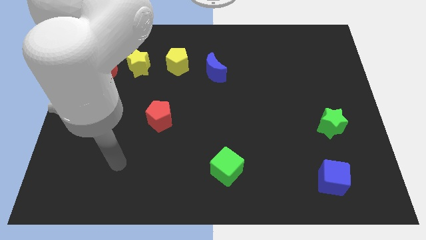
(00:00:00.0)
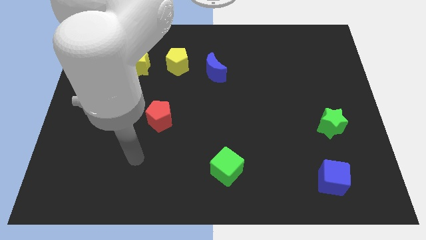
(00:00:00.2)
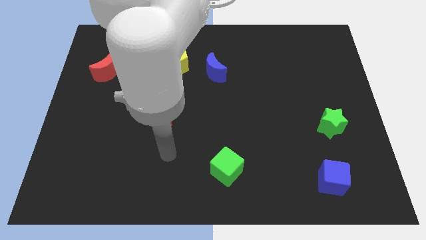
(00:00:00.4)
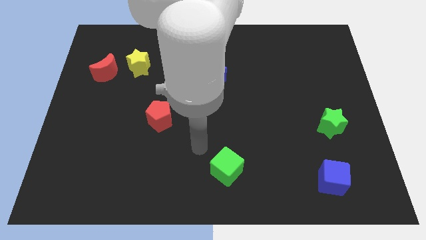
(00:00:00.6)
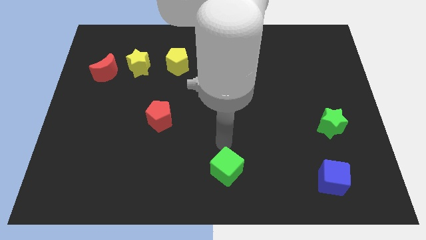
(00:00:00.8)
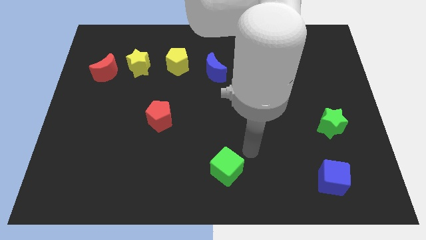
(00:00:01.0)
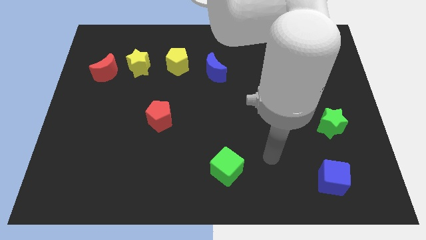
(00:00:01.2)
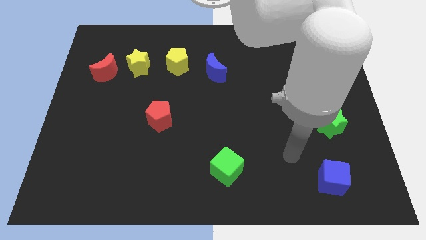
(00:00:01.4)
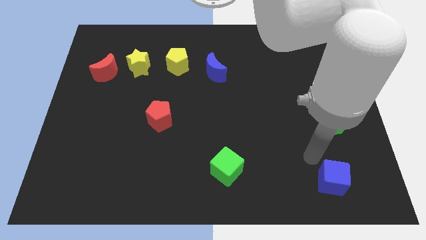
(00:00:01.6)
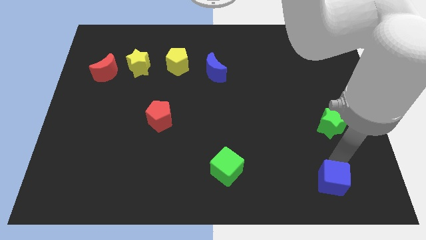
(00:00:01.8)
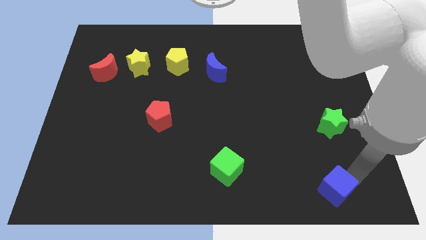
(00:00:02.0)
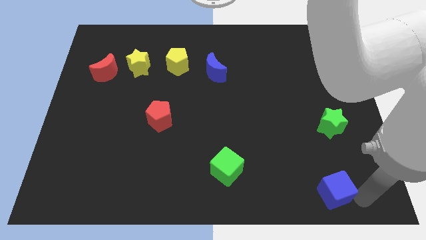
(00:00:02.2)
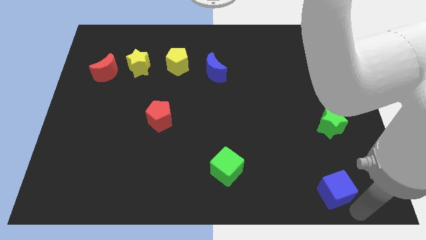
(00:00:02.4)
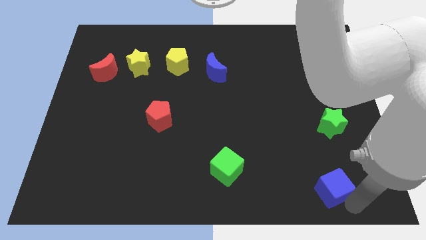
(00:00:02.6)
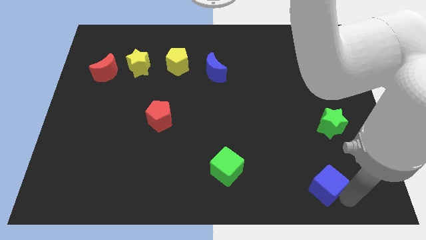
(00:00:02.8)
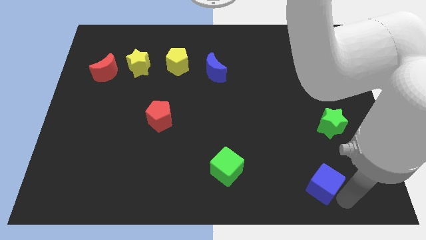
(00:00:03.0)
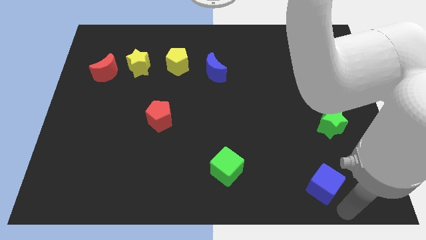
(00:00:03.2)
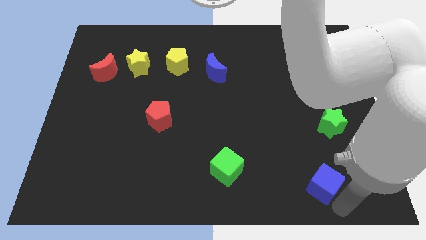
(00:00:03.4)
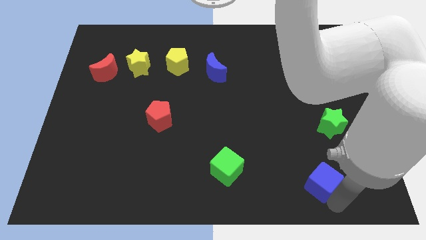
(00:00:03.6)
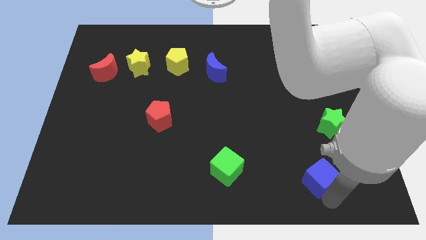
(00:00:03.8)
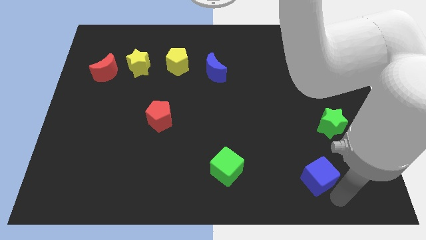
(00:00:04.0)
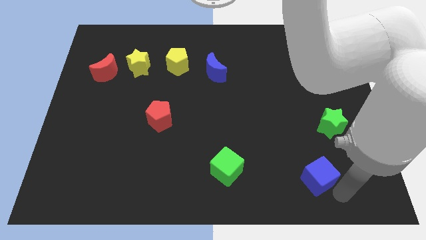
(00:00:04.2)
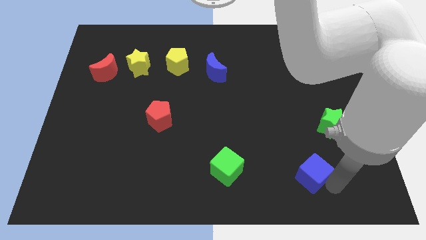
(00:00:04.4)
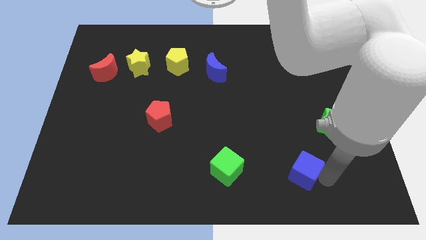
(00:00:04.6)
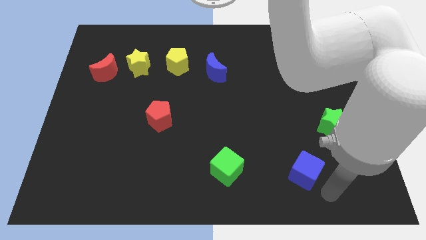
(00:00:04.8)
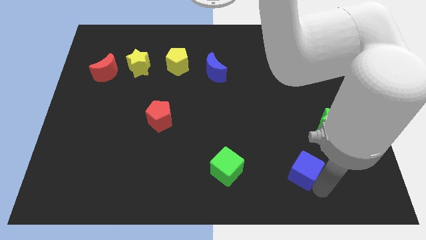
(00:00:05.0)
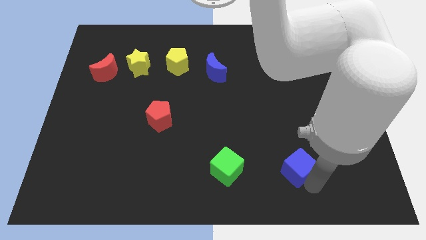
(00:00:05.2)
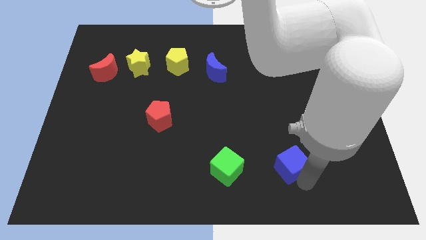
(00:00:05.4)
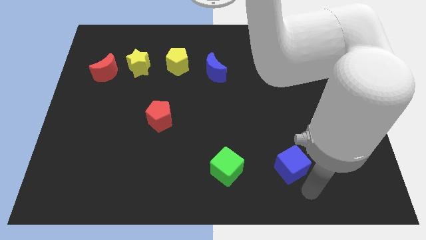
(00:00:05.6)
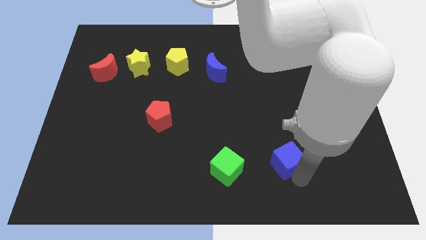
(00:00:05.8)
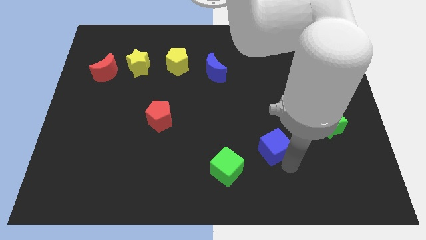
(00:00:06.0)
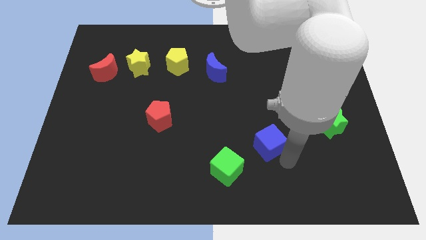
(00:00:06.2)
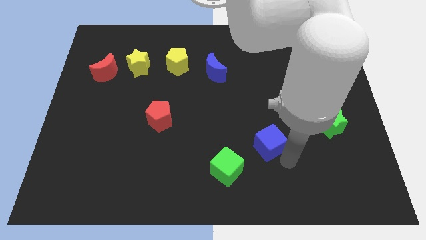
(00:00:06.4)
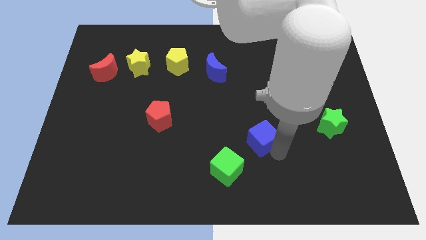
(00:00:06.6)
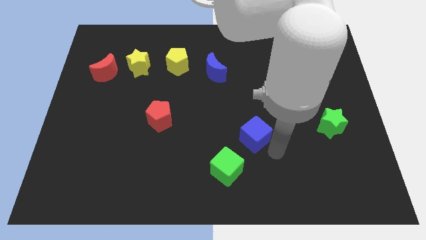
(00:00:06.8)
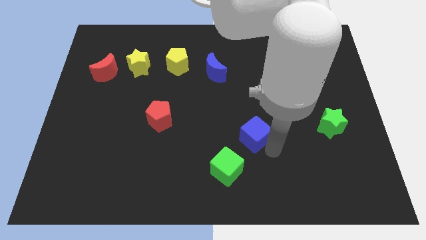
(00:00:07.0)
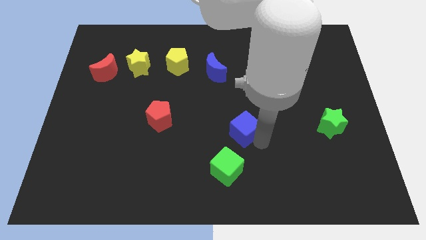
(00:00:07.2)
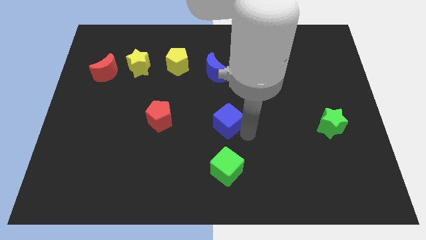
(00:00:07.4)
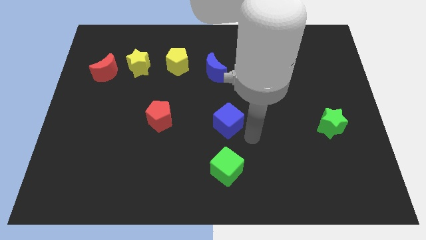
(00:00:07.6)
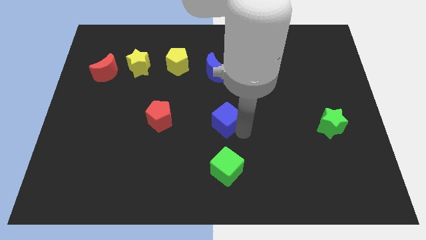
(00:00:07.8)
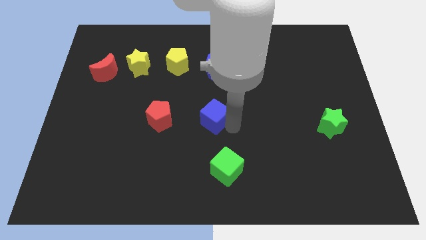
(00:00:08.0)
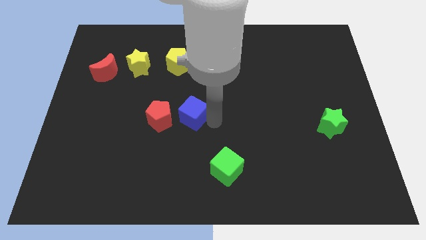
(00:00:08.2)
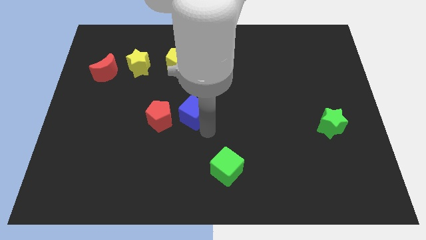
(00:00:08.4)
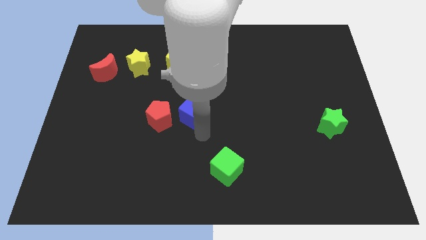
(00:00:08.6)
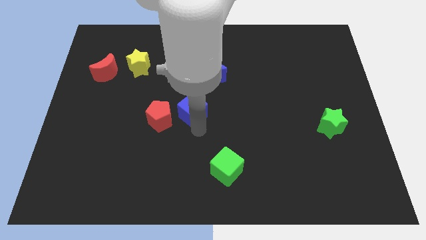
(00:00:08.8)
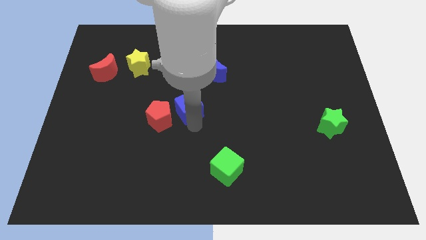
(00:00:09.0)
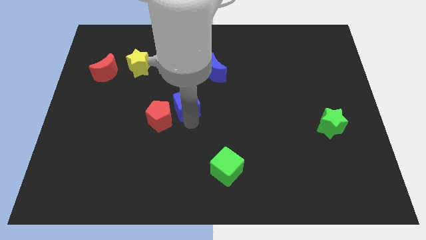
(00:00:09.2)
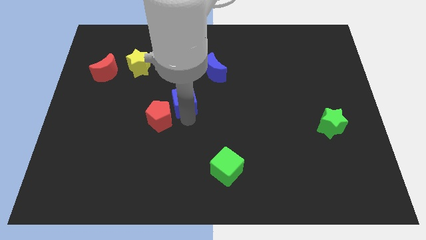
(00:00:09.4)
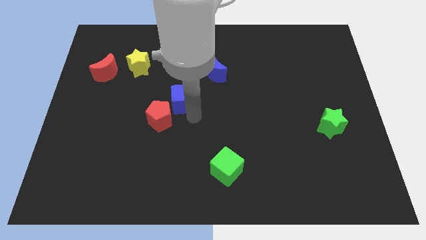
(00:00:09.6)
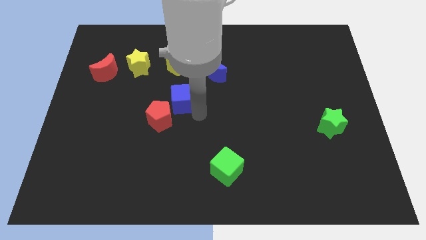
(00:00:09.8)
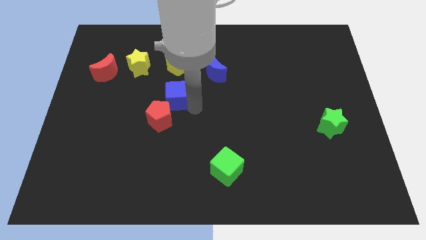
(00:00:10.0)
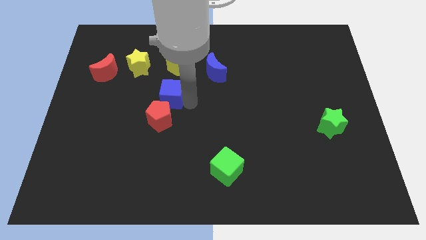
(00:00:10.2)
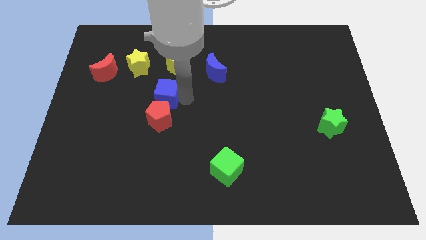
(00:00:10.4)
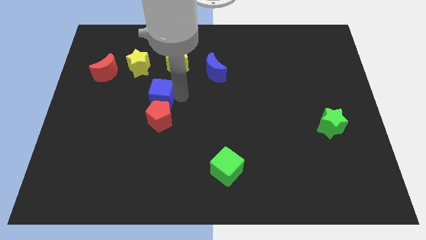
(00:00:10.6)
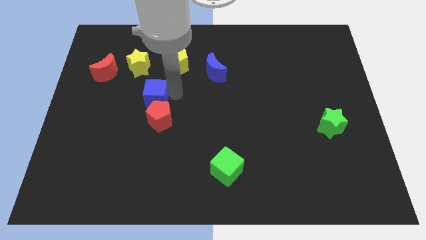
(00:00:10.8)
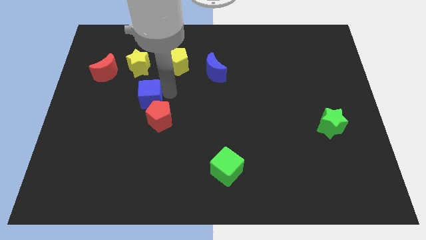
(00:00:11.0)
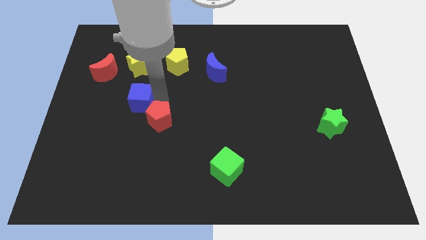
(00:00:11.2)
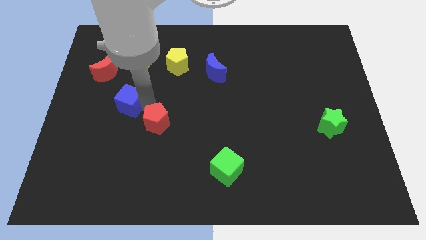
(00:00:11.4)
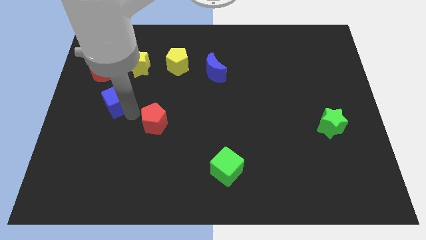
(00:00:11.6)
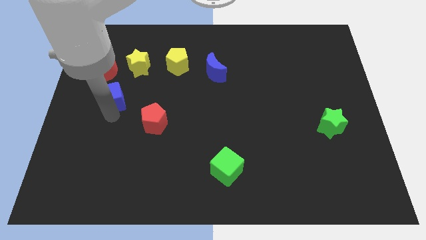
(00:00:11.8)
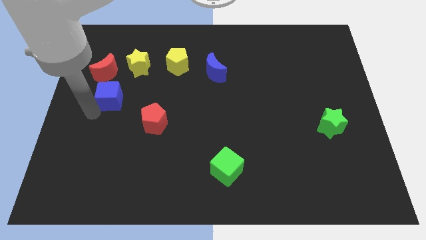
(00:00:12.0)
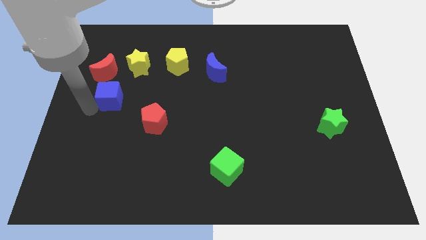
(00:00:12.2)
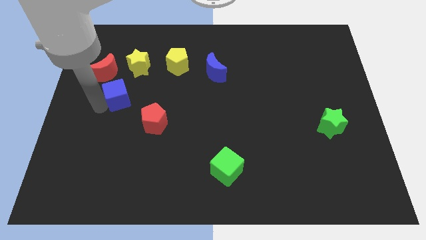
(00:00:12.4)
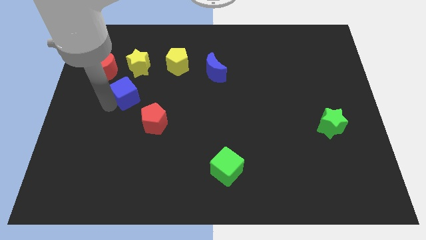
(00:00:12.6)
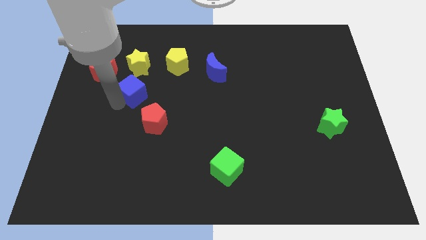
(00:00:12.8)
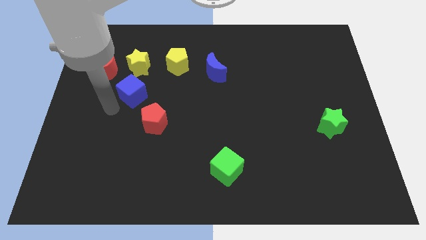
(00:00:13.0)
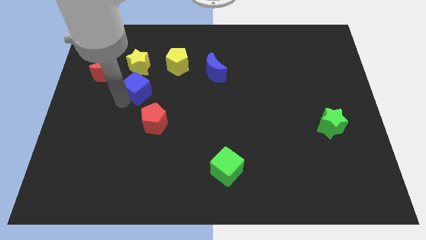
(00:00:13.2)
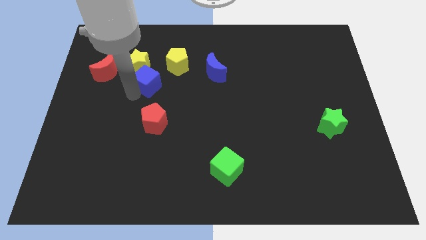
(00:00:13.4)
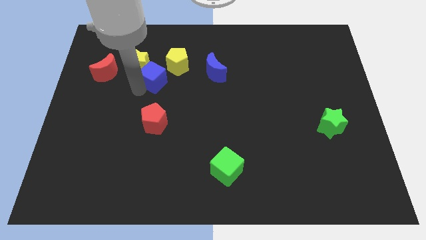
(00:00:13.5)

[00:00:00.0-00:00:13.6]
move the blue cube left of the blue moon

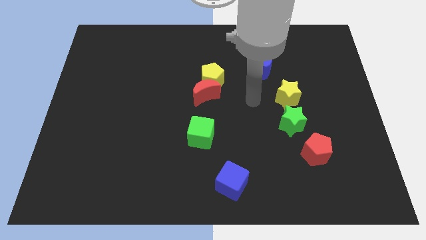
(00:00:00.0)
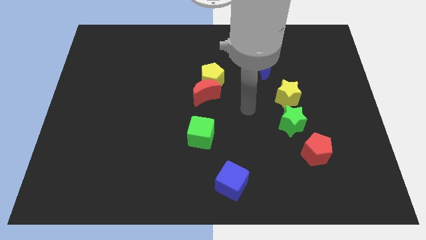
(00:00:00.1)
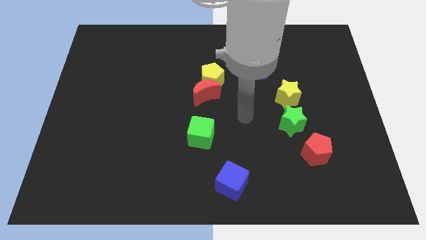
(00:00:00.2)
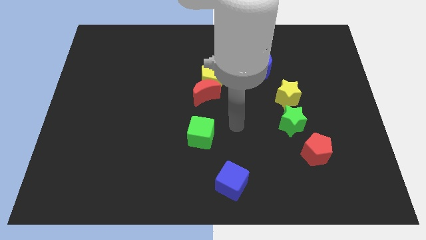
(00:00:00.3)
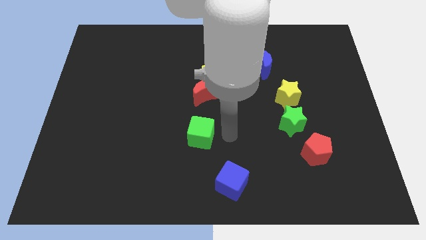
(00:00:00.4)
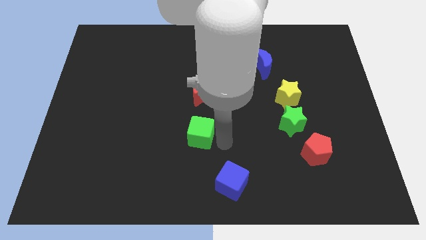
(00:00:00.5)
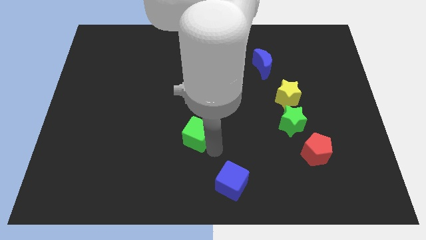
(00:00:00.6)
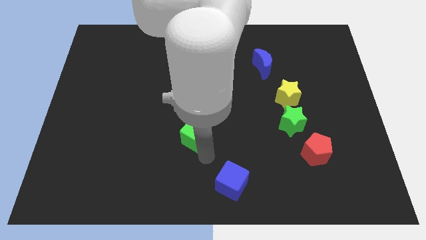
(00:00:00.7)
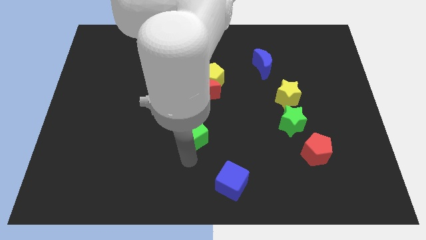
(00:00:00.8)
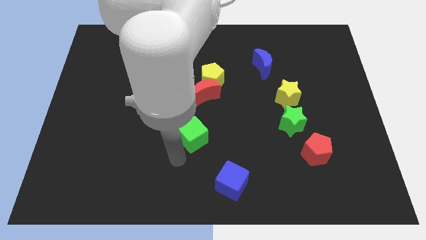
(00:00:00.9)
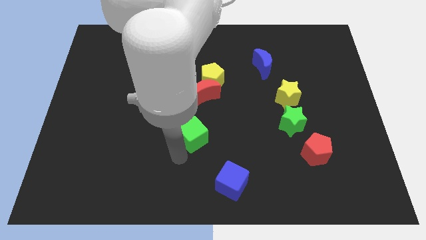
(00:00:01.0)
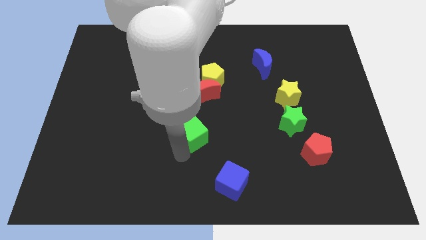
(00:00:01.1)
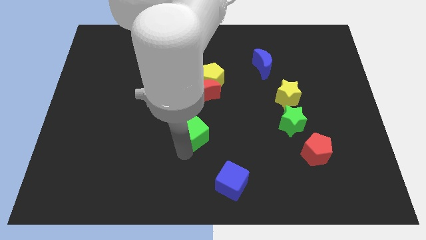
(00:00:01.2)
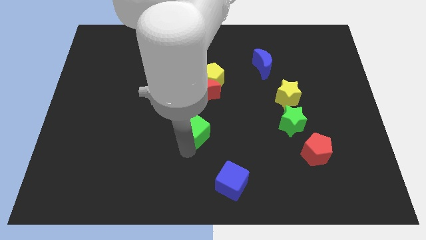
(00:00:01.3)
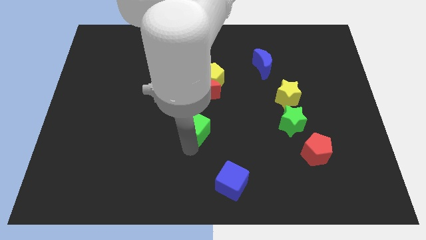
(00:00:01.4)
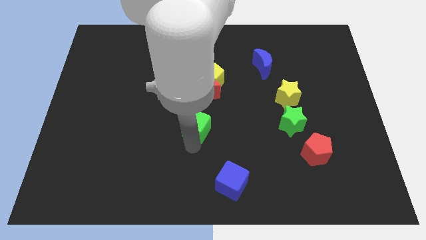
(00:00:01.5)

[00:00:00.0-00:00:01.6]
put the green cube to the bottom of the yellow pentagon
